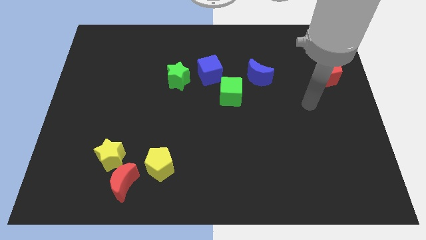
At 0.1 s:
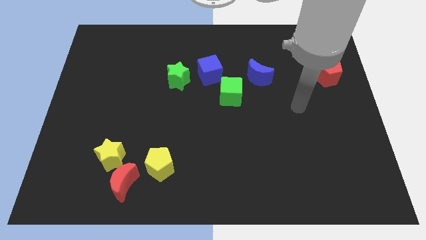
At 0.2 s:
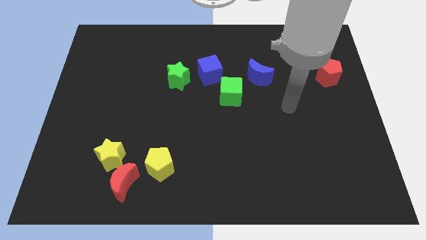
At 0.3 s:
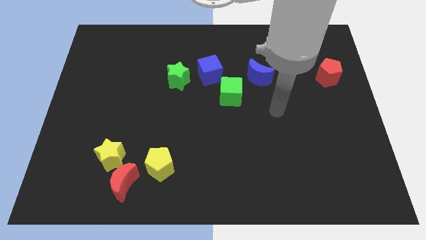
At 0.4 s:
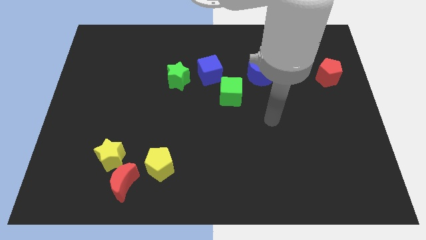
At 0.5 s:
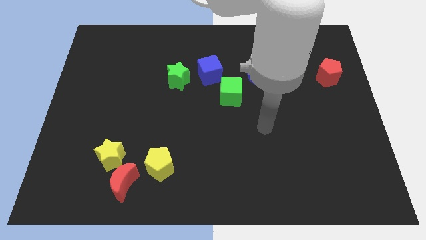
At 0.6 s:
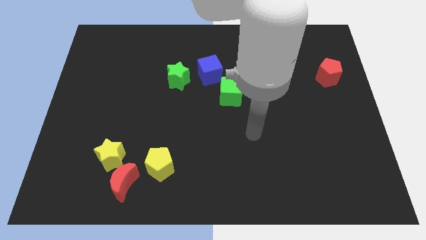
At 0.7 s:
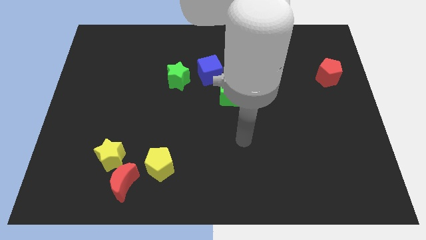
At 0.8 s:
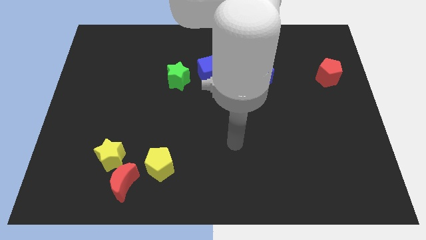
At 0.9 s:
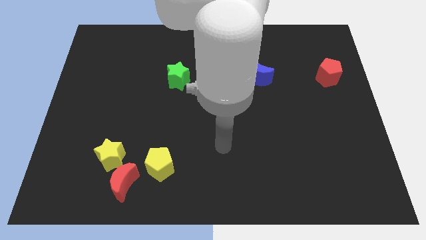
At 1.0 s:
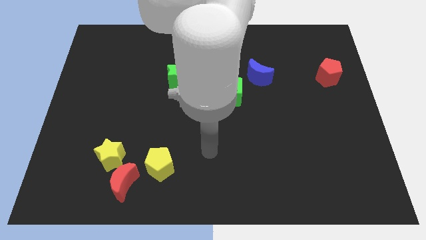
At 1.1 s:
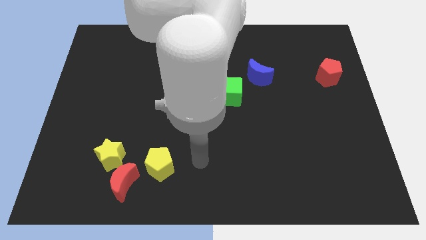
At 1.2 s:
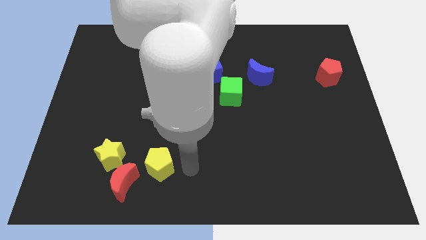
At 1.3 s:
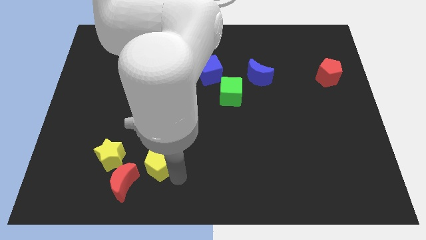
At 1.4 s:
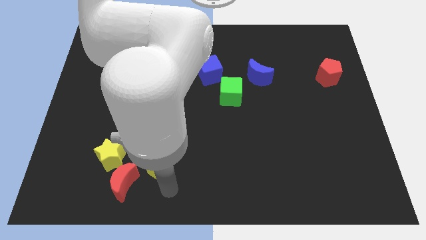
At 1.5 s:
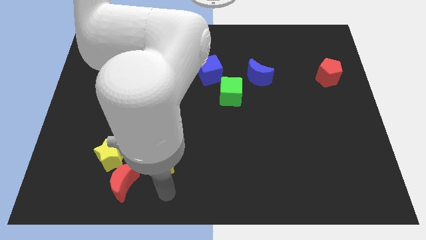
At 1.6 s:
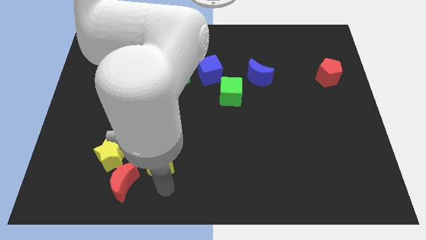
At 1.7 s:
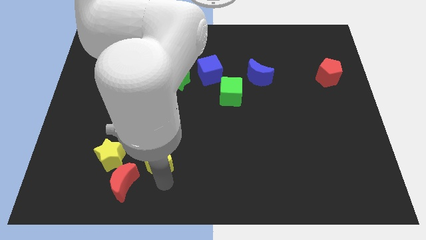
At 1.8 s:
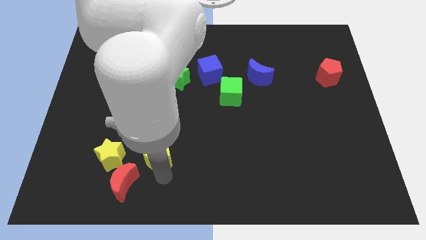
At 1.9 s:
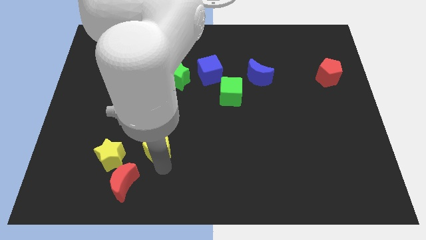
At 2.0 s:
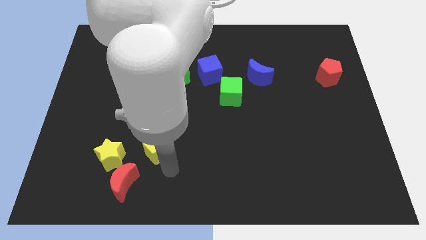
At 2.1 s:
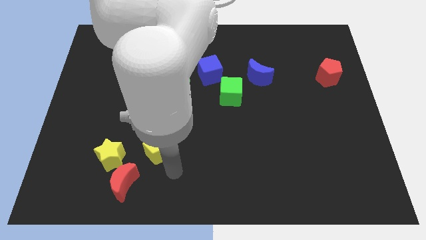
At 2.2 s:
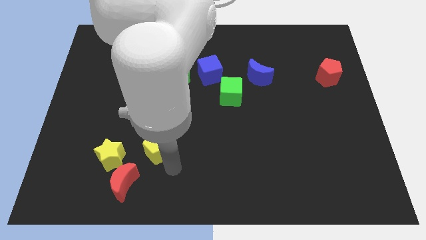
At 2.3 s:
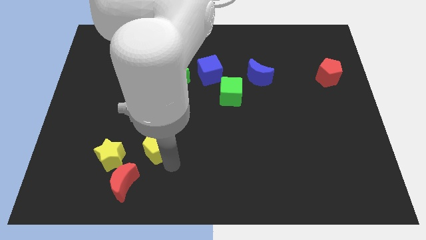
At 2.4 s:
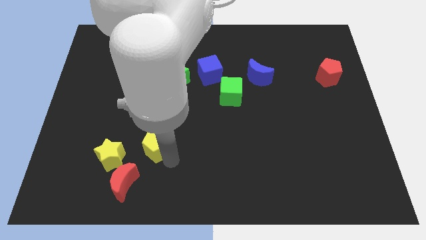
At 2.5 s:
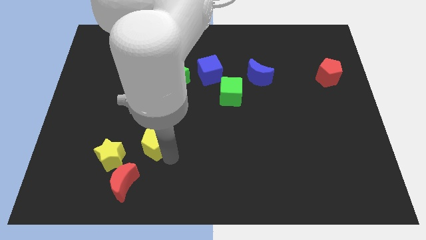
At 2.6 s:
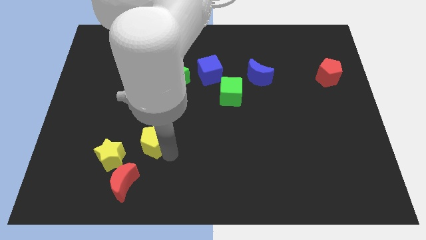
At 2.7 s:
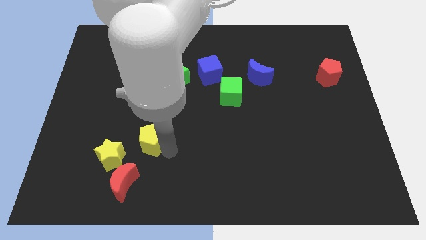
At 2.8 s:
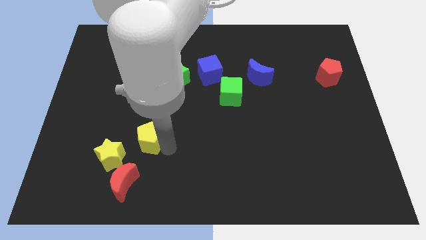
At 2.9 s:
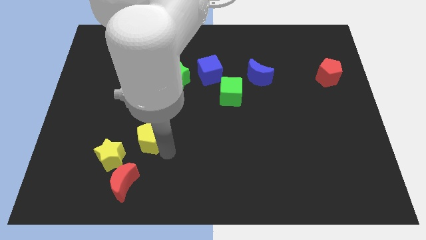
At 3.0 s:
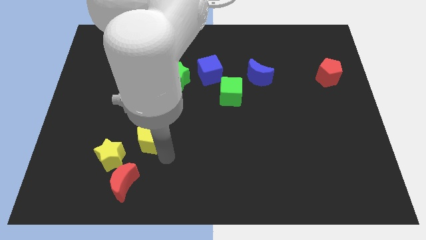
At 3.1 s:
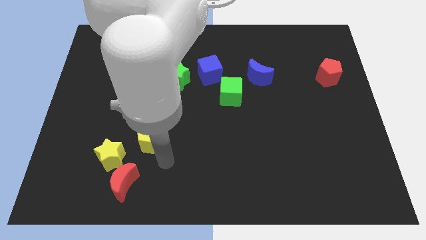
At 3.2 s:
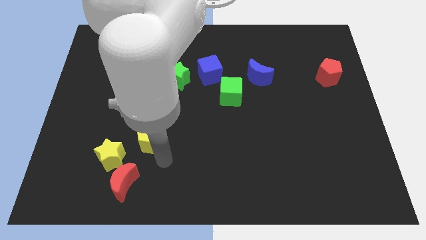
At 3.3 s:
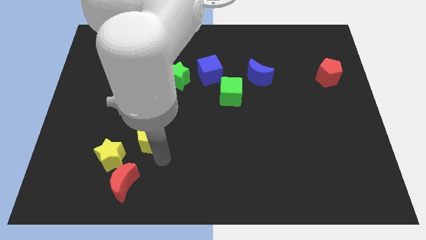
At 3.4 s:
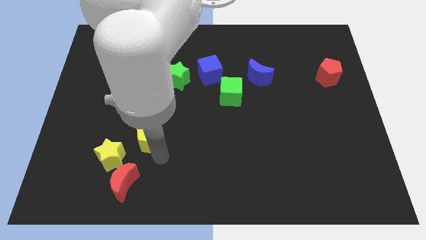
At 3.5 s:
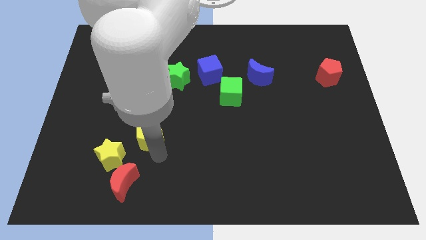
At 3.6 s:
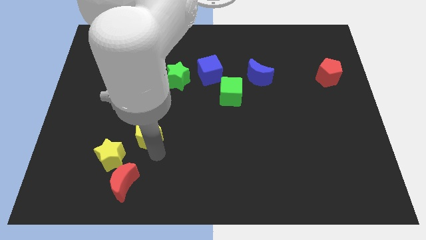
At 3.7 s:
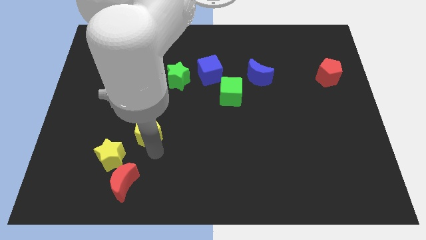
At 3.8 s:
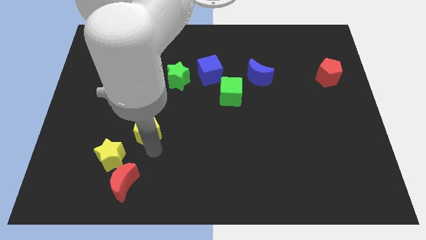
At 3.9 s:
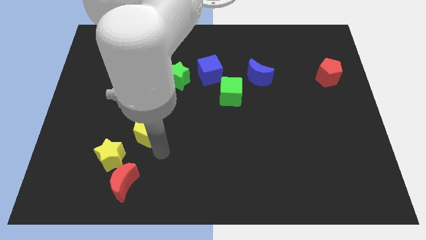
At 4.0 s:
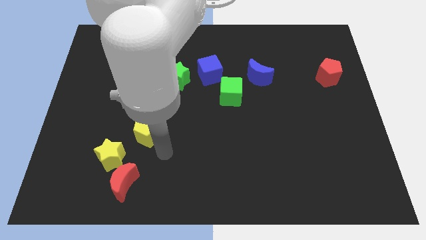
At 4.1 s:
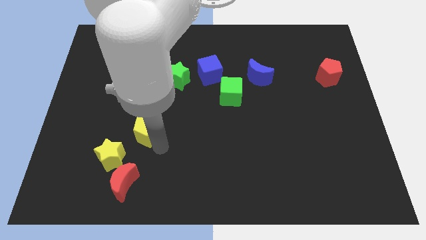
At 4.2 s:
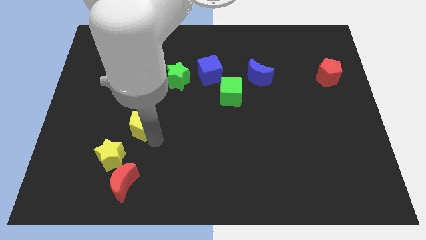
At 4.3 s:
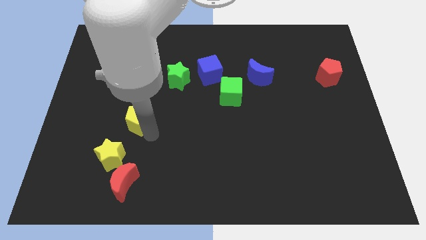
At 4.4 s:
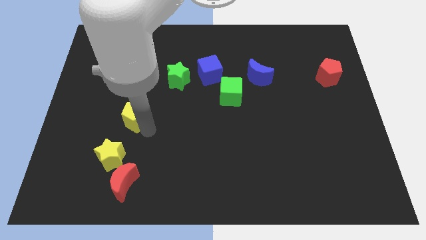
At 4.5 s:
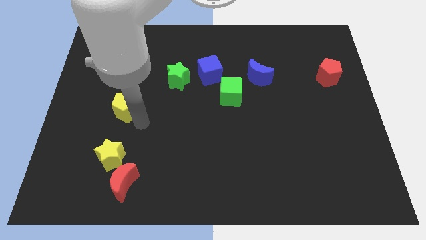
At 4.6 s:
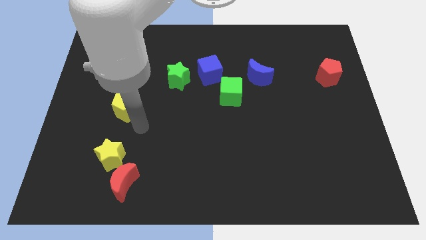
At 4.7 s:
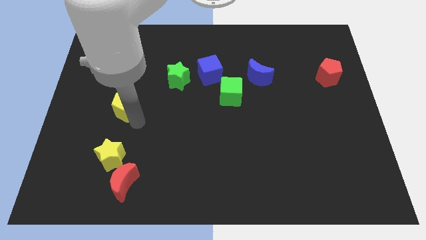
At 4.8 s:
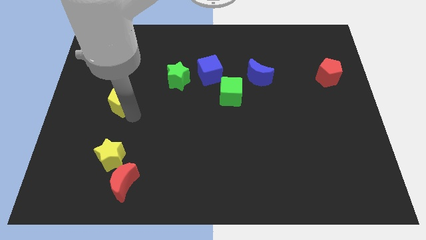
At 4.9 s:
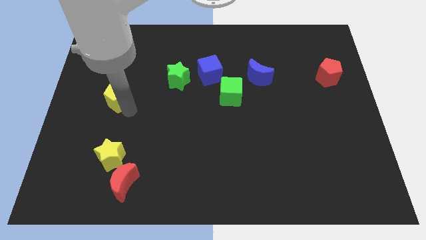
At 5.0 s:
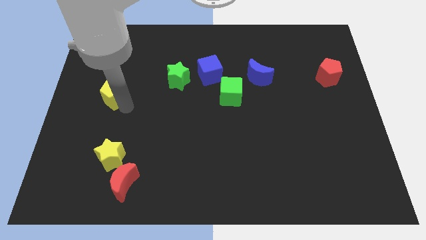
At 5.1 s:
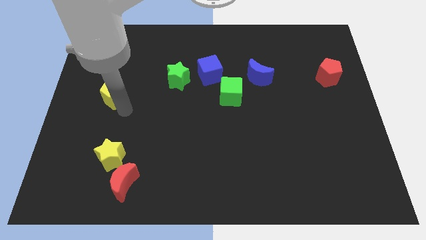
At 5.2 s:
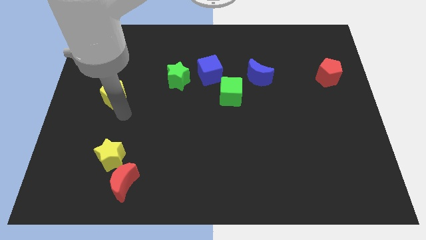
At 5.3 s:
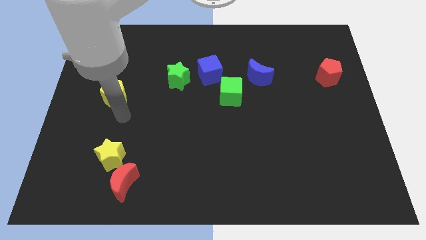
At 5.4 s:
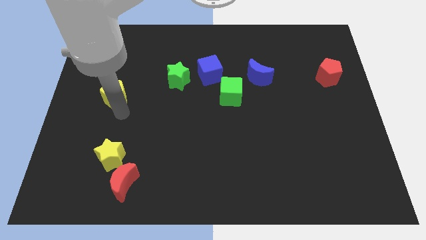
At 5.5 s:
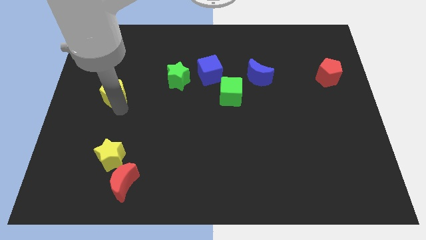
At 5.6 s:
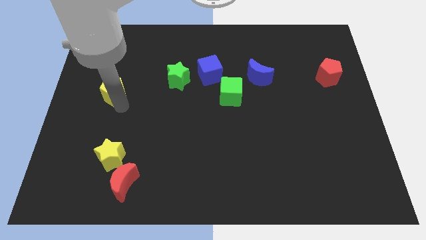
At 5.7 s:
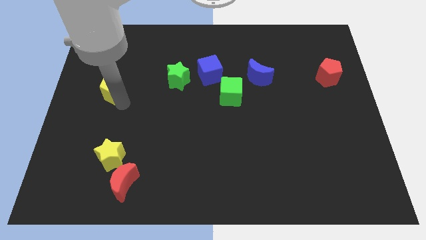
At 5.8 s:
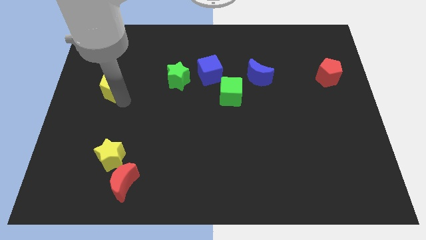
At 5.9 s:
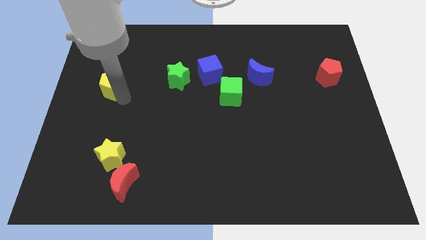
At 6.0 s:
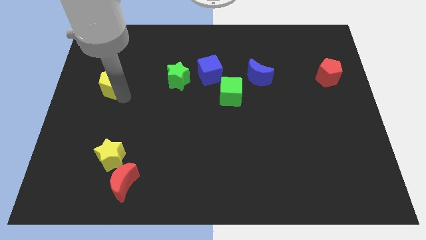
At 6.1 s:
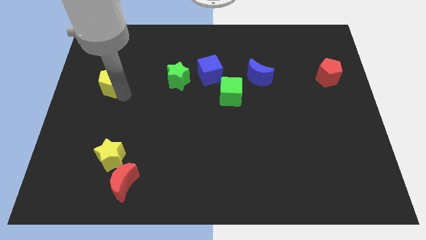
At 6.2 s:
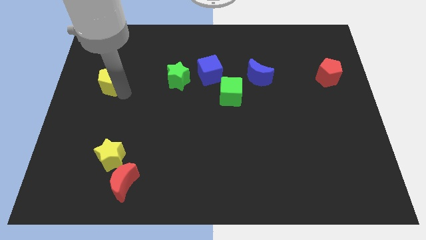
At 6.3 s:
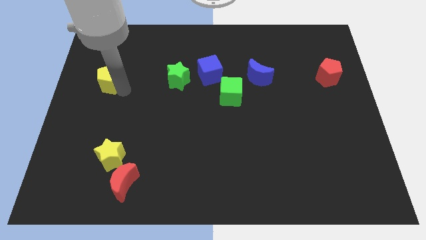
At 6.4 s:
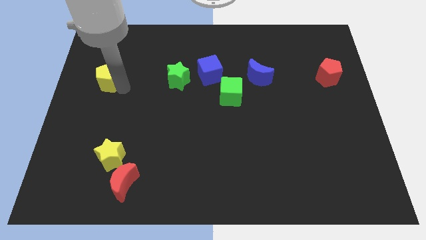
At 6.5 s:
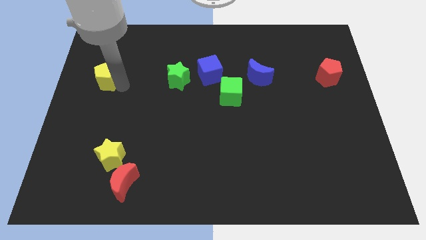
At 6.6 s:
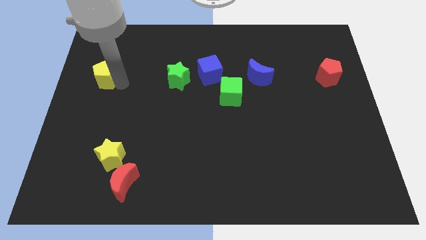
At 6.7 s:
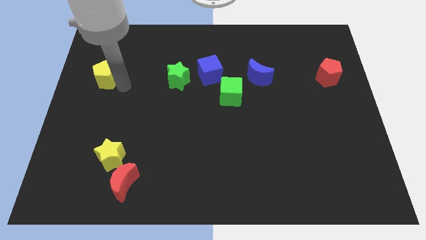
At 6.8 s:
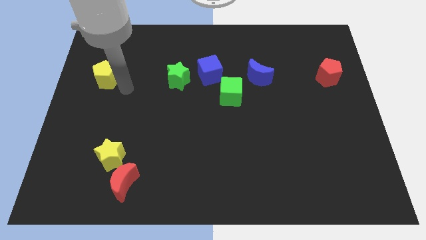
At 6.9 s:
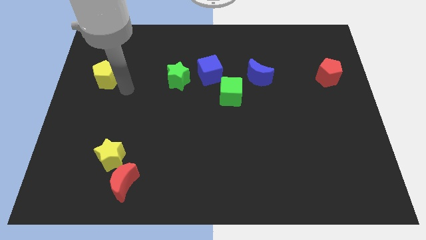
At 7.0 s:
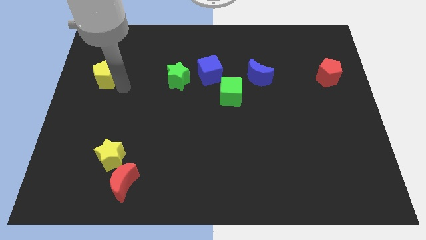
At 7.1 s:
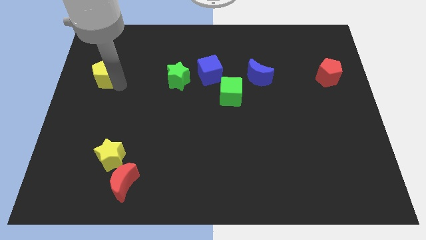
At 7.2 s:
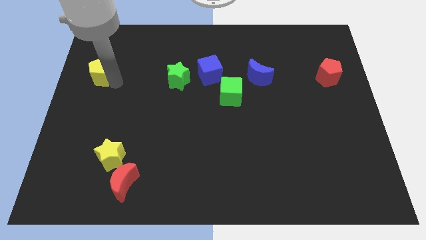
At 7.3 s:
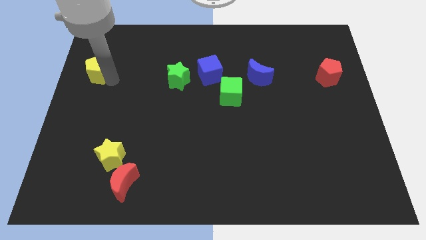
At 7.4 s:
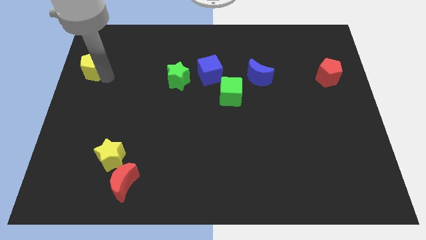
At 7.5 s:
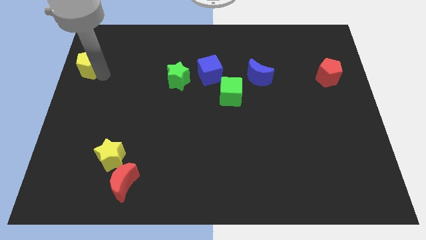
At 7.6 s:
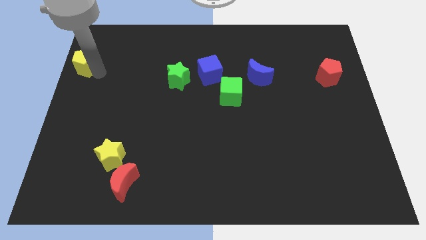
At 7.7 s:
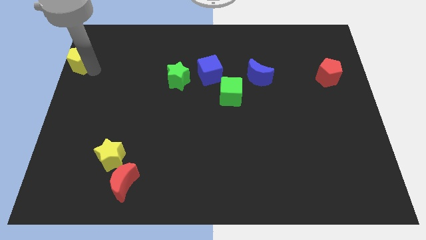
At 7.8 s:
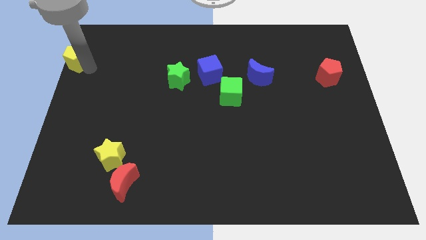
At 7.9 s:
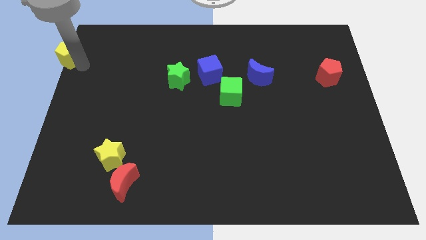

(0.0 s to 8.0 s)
put the yellow pentagon to the top left corner
